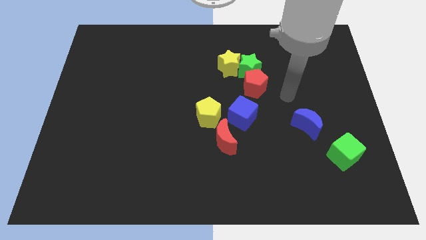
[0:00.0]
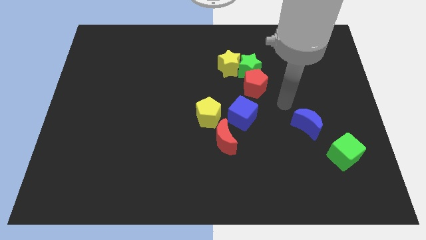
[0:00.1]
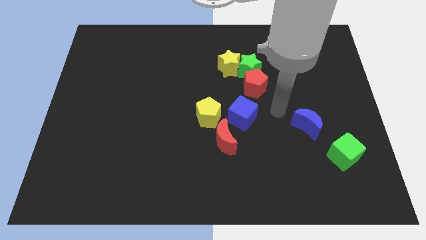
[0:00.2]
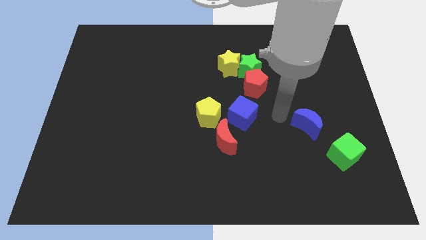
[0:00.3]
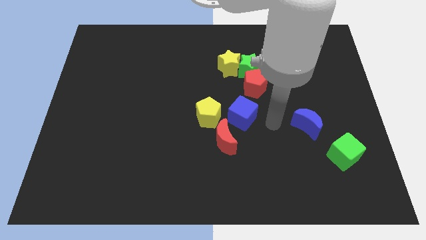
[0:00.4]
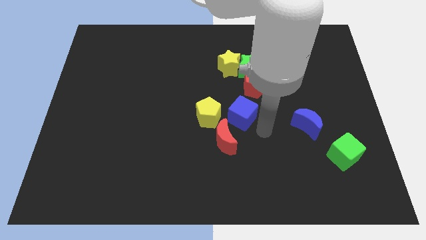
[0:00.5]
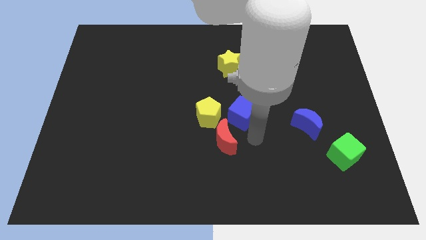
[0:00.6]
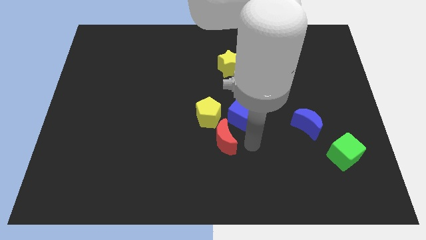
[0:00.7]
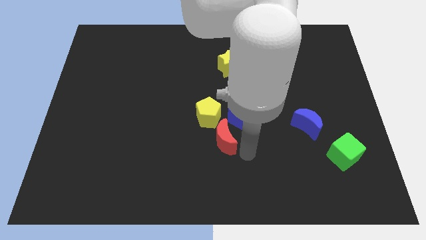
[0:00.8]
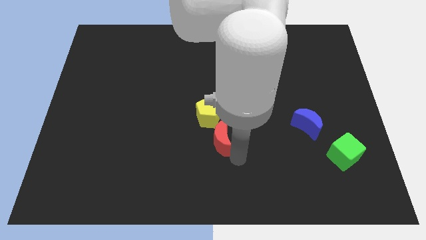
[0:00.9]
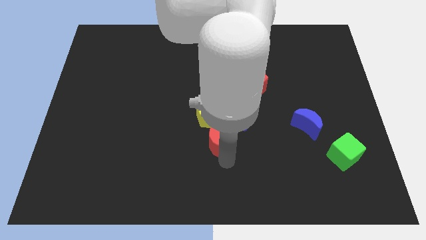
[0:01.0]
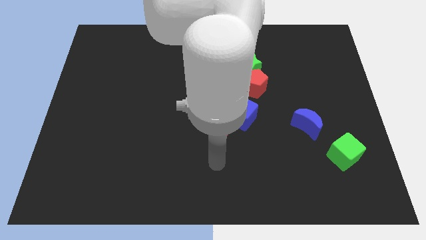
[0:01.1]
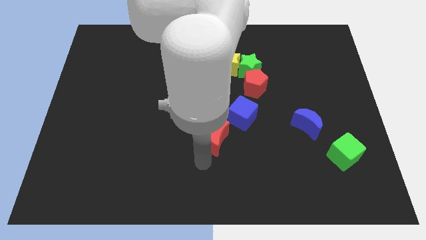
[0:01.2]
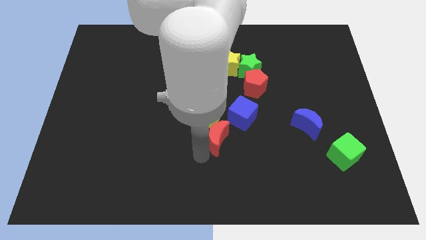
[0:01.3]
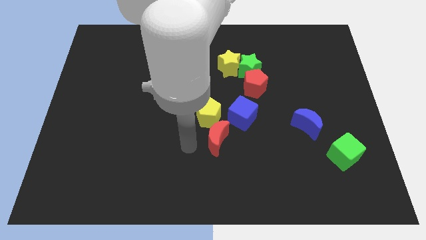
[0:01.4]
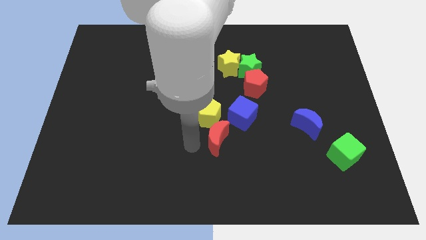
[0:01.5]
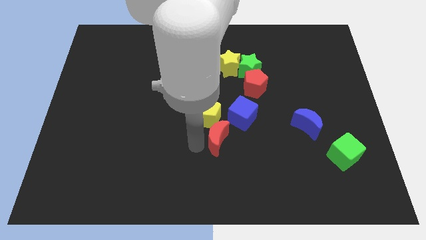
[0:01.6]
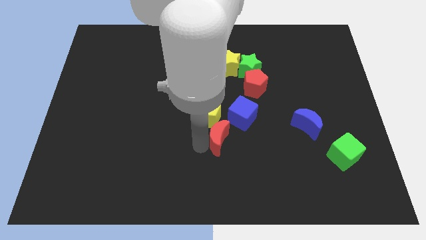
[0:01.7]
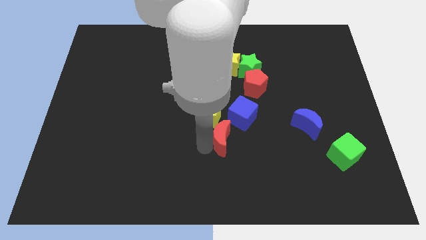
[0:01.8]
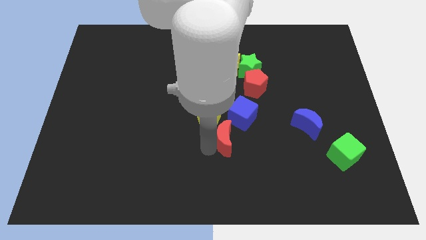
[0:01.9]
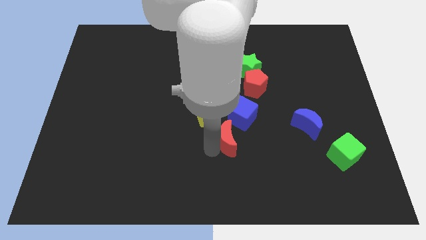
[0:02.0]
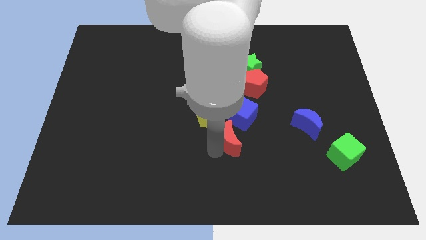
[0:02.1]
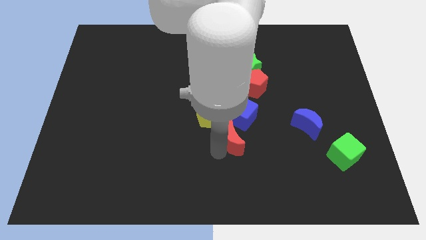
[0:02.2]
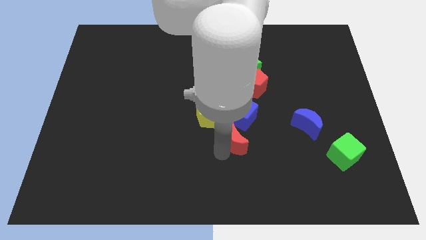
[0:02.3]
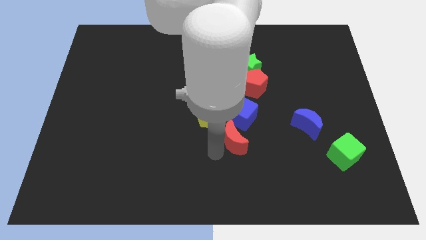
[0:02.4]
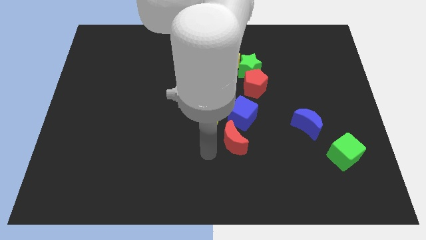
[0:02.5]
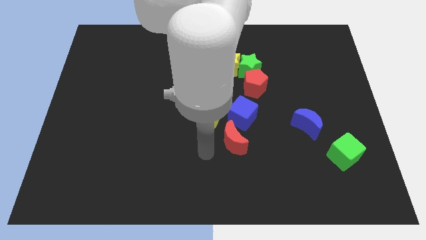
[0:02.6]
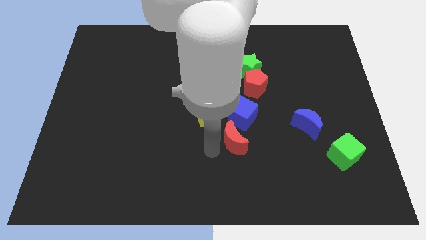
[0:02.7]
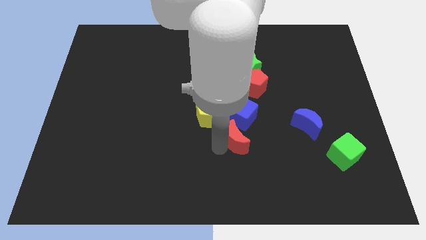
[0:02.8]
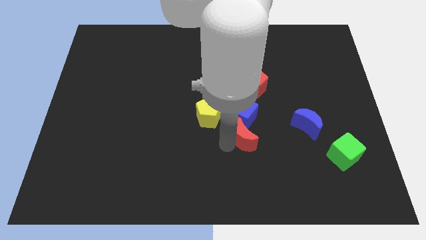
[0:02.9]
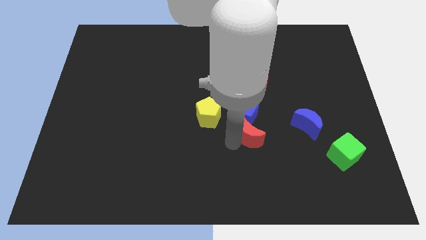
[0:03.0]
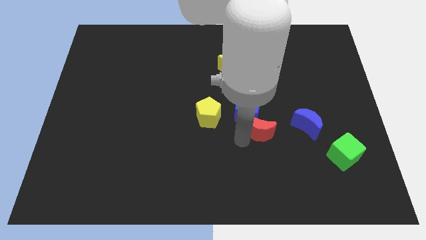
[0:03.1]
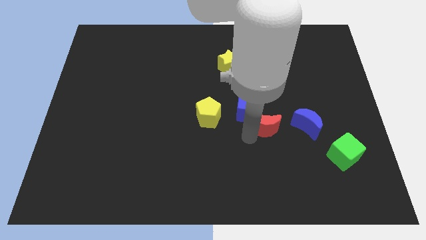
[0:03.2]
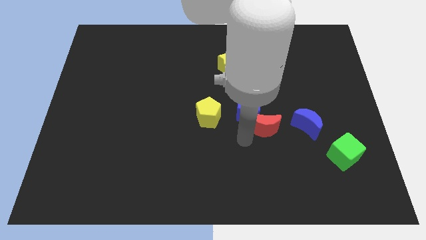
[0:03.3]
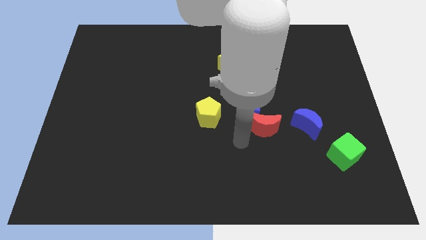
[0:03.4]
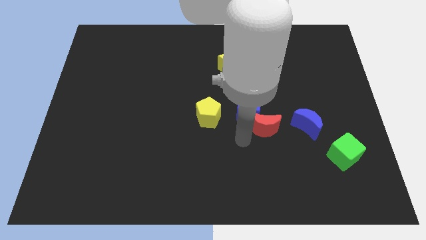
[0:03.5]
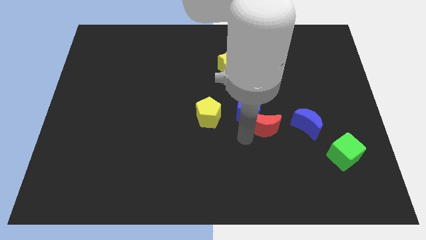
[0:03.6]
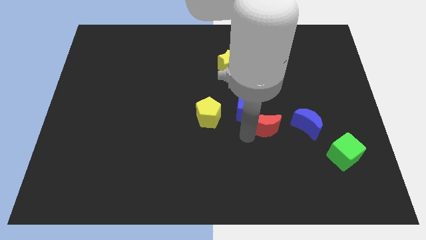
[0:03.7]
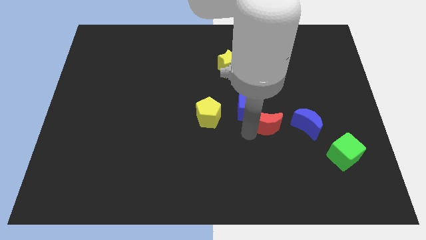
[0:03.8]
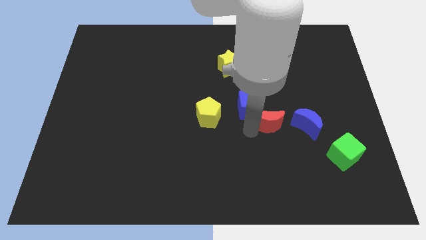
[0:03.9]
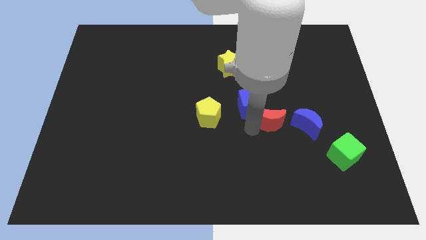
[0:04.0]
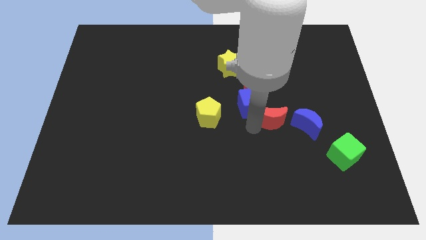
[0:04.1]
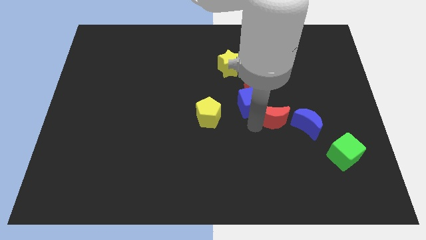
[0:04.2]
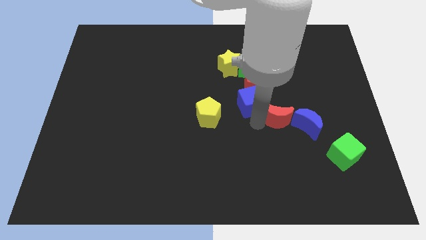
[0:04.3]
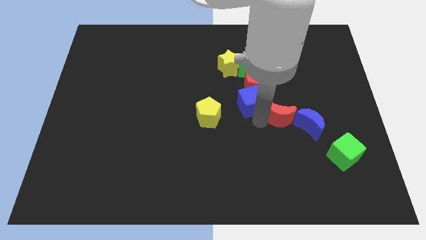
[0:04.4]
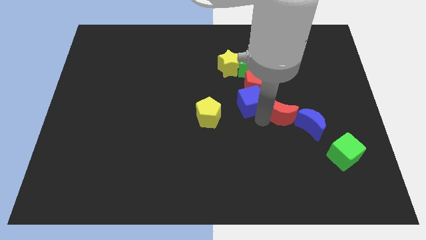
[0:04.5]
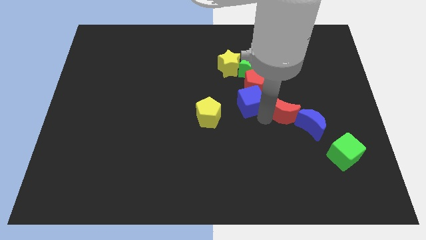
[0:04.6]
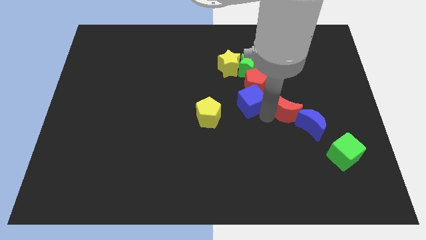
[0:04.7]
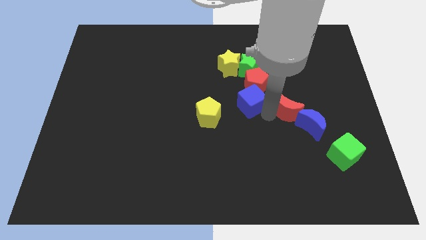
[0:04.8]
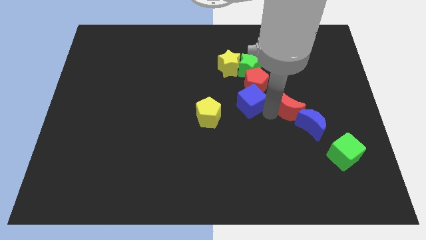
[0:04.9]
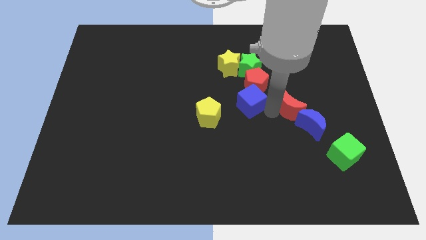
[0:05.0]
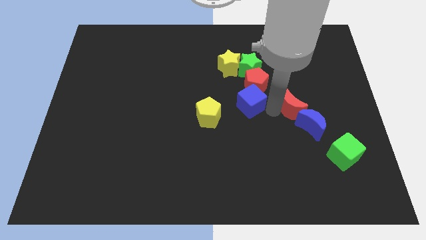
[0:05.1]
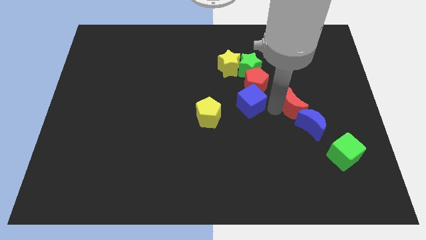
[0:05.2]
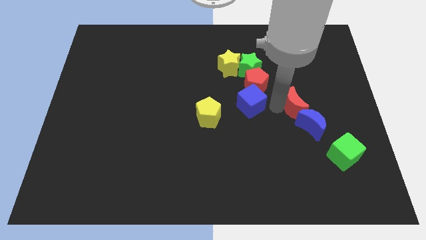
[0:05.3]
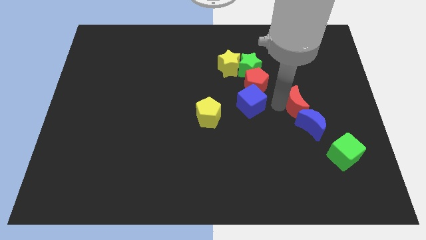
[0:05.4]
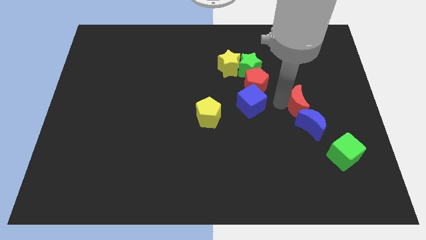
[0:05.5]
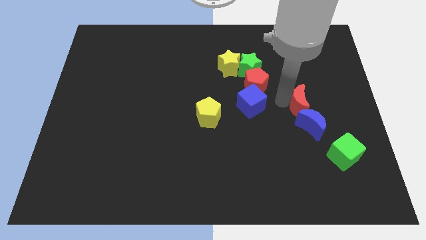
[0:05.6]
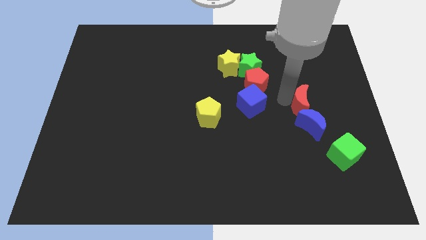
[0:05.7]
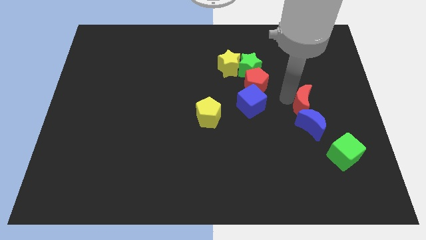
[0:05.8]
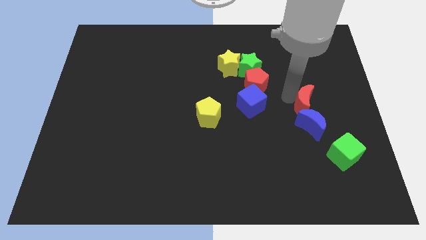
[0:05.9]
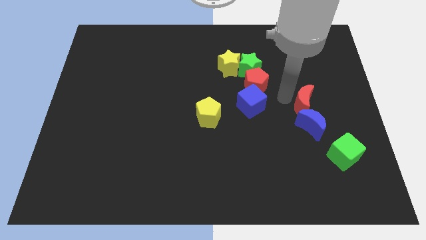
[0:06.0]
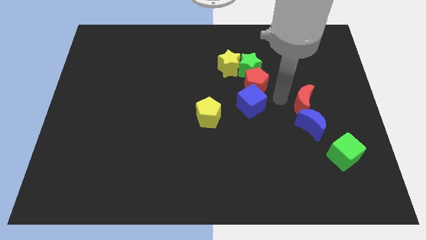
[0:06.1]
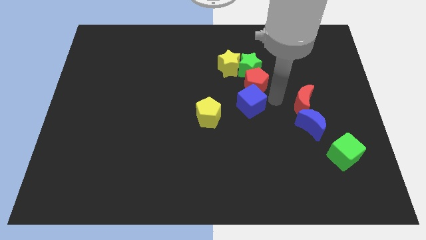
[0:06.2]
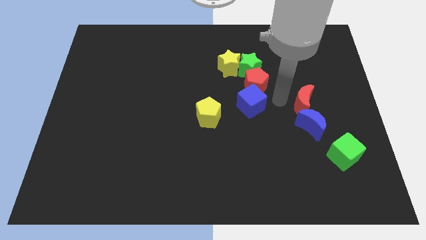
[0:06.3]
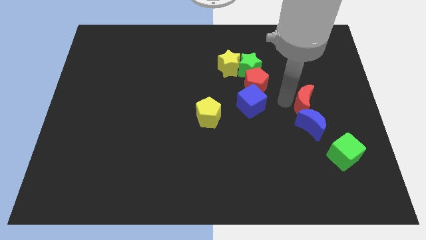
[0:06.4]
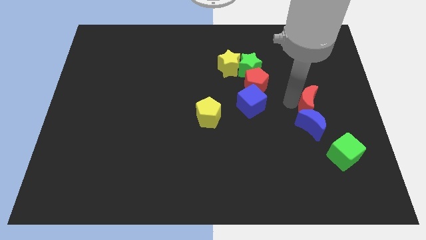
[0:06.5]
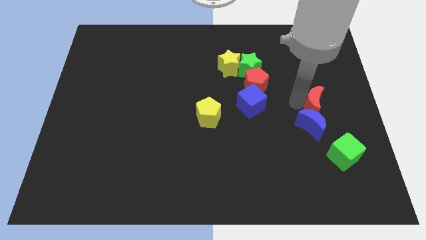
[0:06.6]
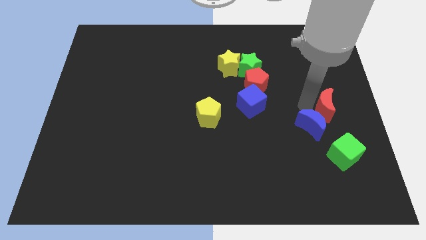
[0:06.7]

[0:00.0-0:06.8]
move the red moon to the center right

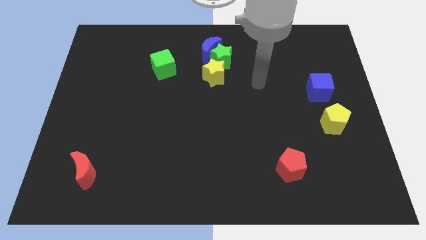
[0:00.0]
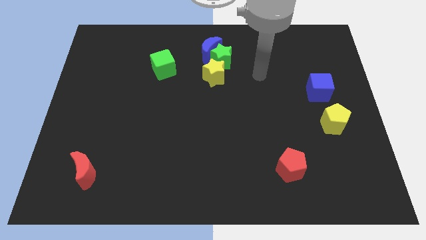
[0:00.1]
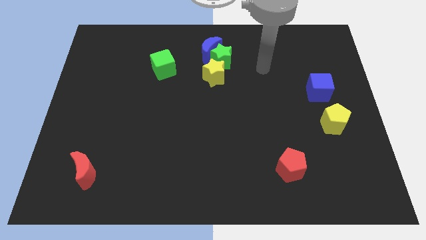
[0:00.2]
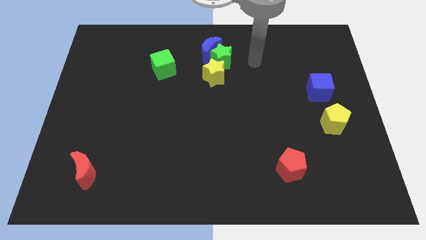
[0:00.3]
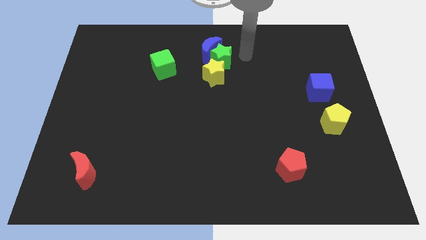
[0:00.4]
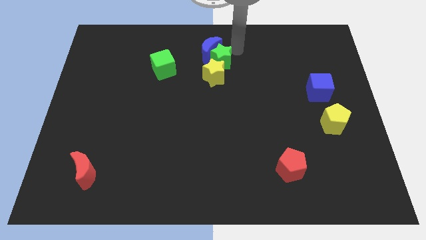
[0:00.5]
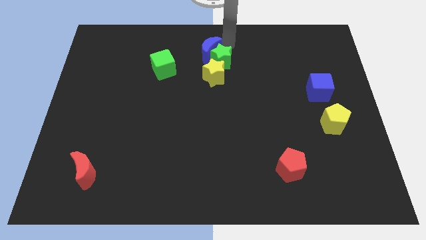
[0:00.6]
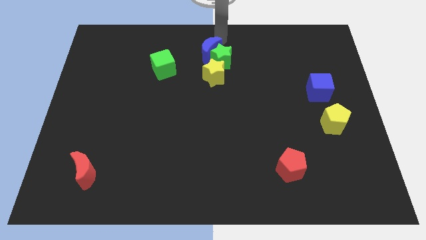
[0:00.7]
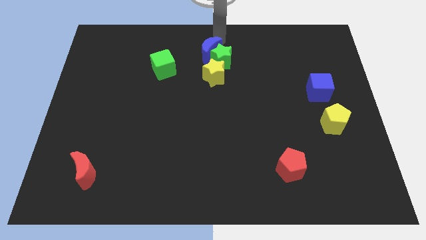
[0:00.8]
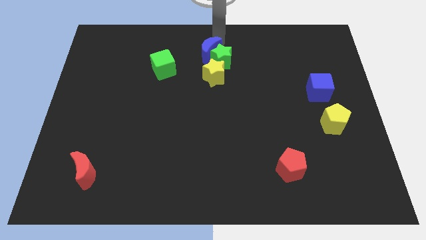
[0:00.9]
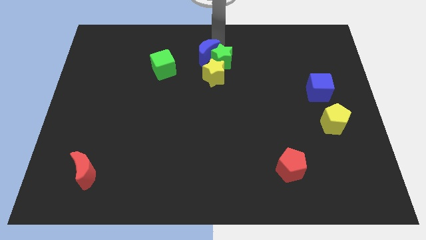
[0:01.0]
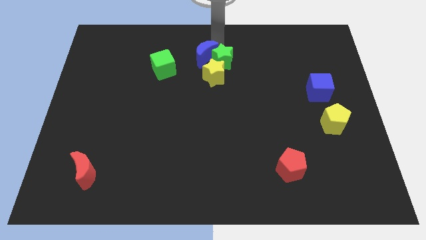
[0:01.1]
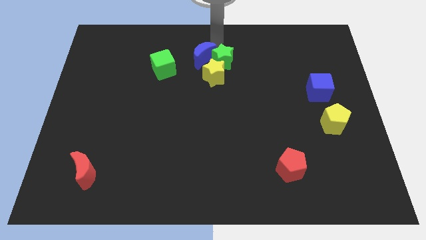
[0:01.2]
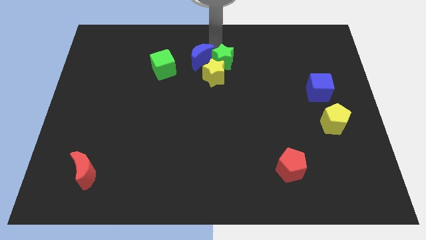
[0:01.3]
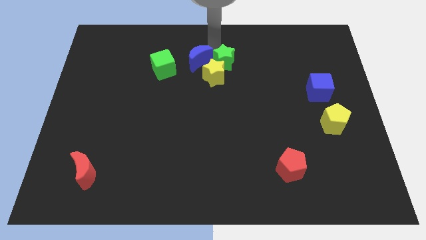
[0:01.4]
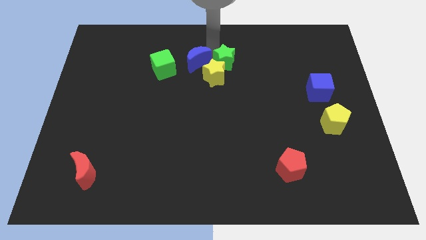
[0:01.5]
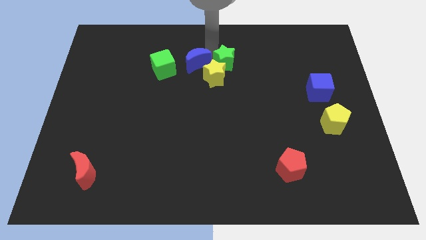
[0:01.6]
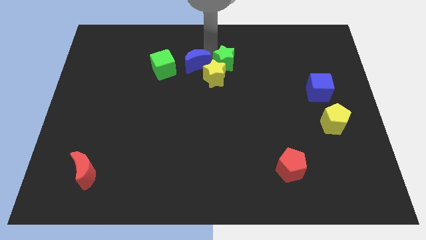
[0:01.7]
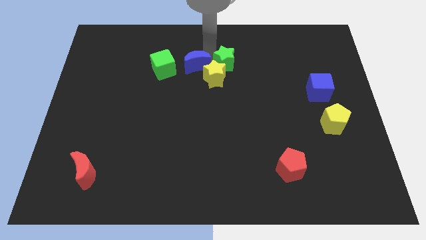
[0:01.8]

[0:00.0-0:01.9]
push the blue moon to the center
